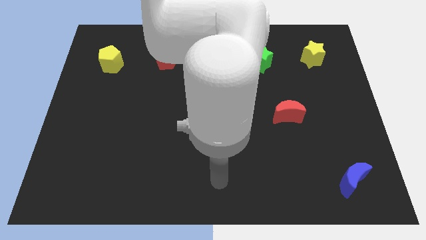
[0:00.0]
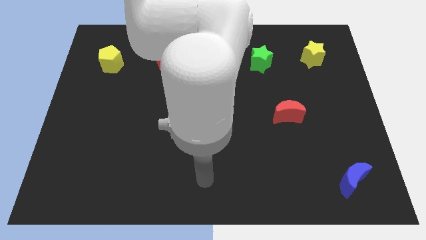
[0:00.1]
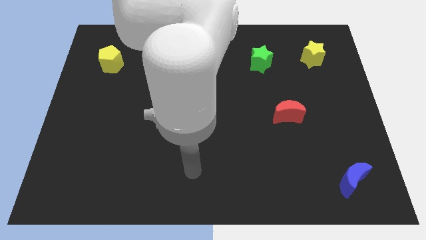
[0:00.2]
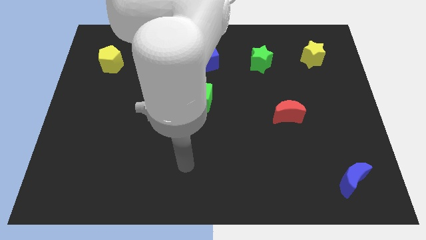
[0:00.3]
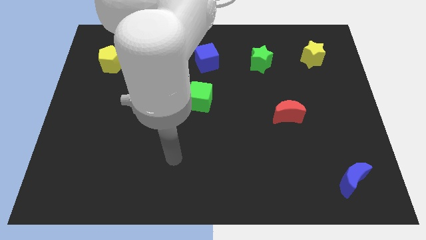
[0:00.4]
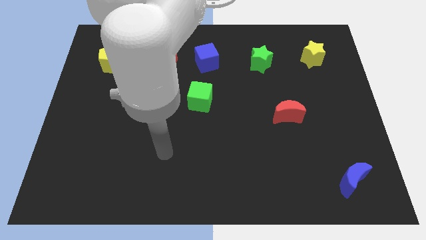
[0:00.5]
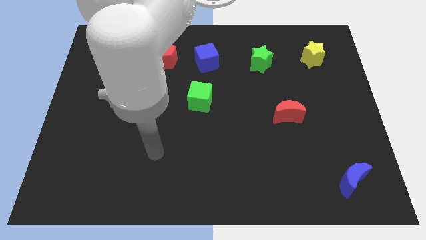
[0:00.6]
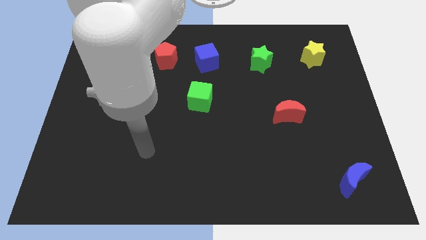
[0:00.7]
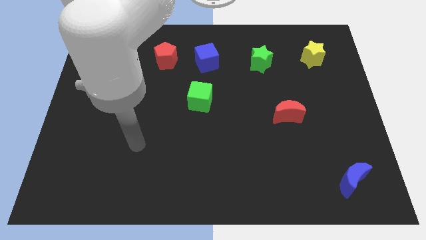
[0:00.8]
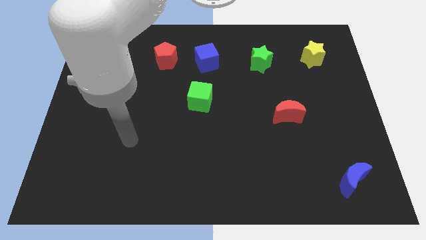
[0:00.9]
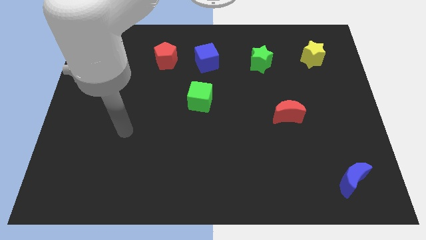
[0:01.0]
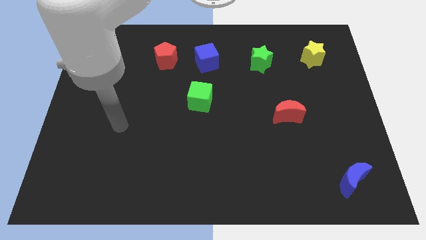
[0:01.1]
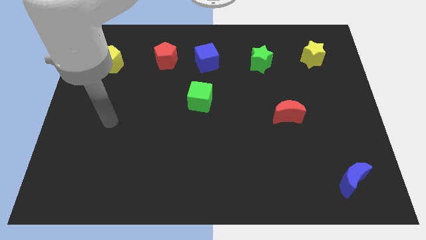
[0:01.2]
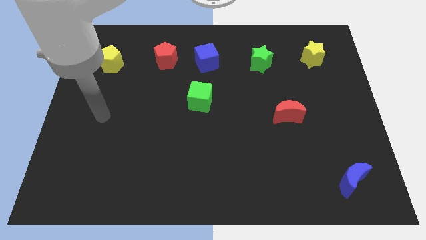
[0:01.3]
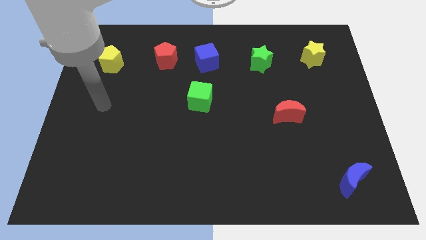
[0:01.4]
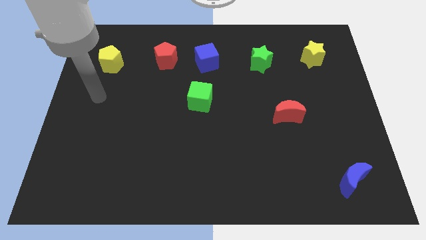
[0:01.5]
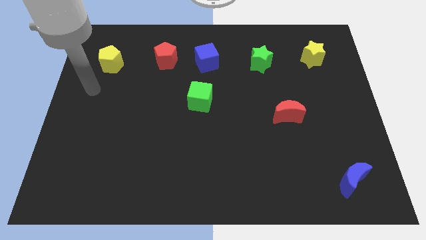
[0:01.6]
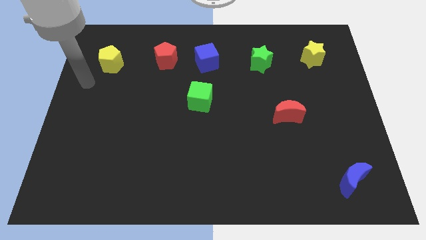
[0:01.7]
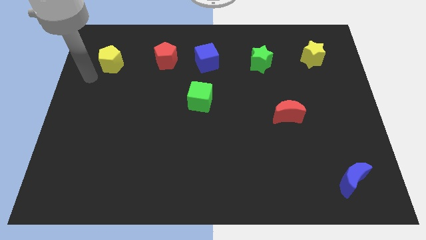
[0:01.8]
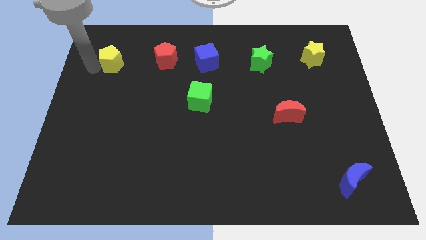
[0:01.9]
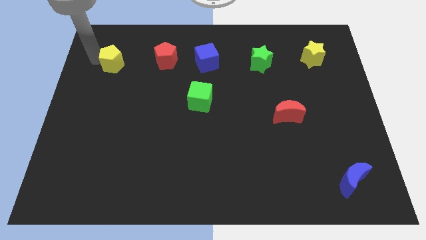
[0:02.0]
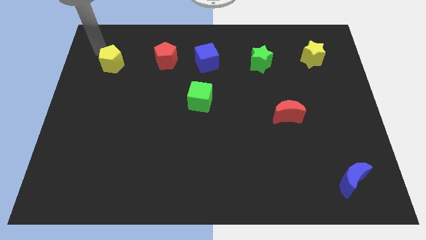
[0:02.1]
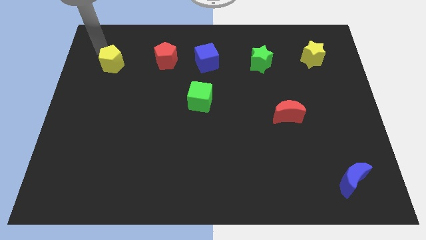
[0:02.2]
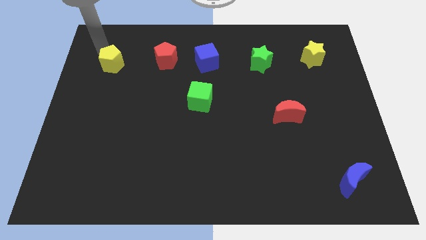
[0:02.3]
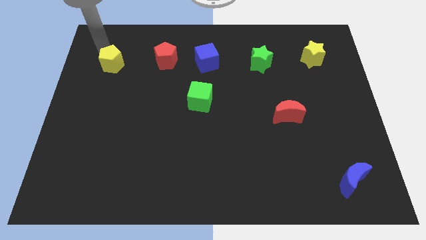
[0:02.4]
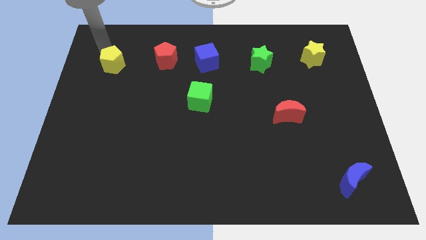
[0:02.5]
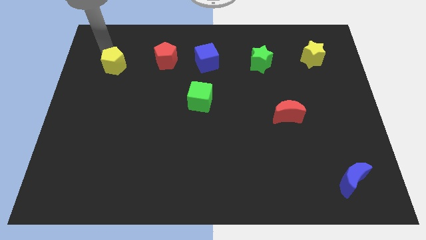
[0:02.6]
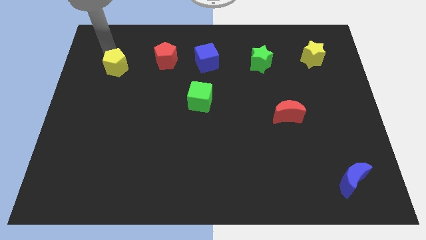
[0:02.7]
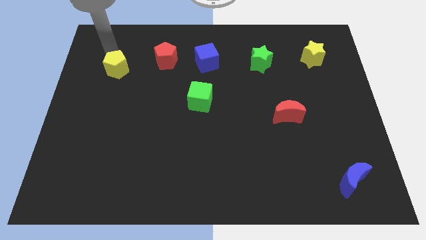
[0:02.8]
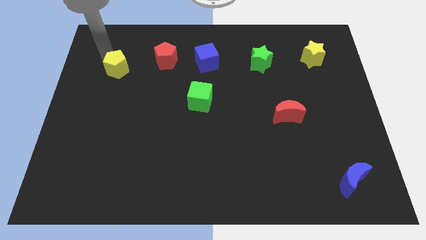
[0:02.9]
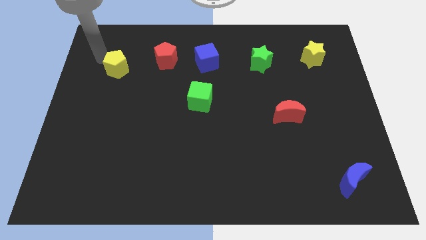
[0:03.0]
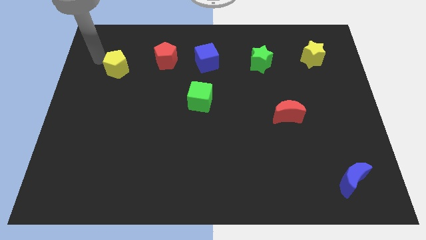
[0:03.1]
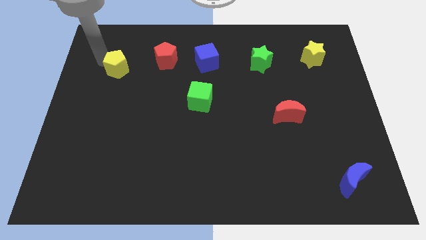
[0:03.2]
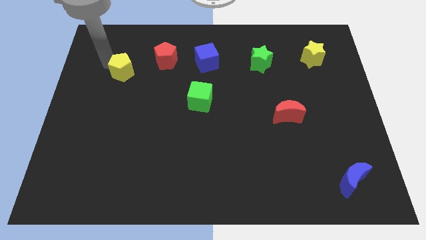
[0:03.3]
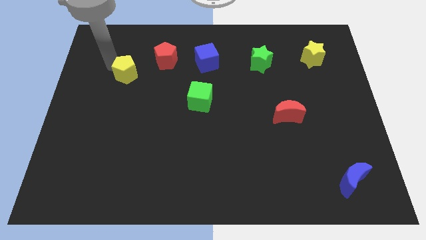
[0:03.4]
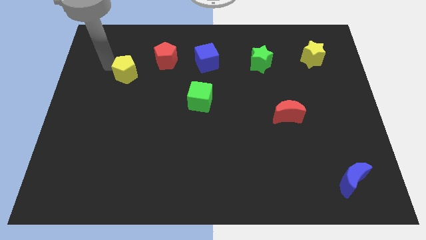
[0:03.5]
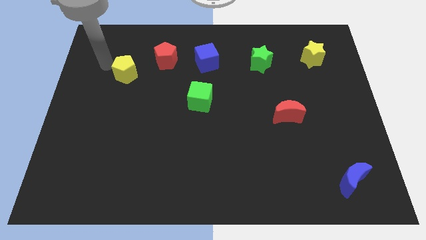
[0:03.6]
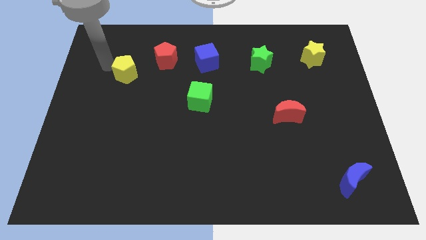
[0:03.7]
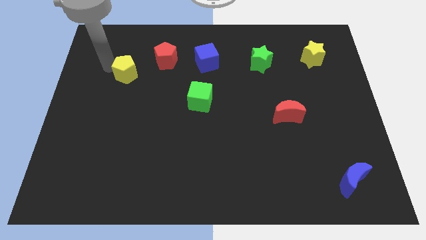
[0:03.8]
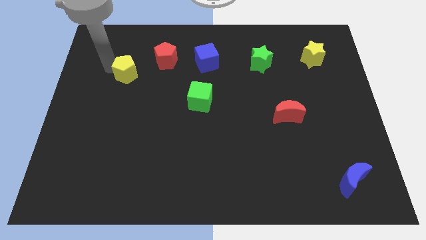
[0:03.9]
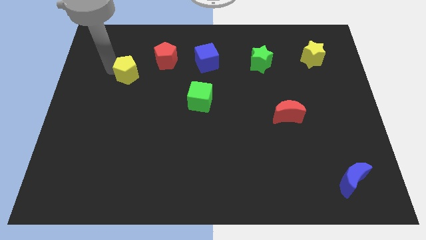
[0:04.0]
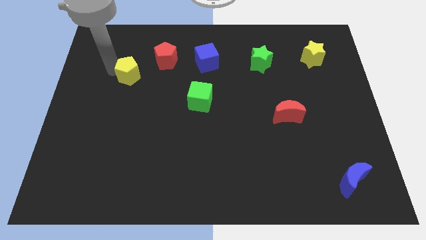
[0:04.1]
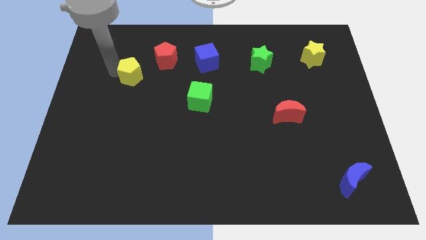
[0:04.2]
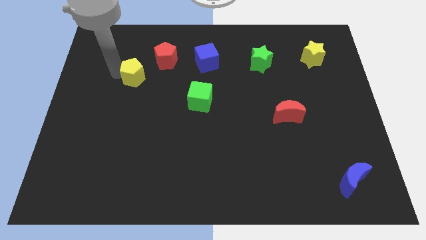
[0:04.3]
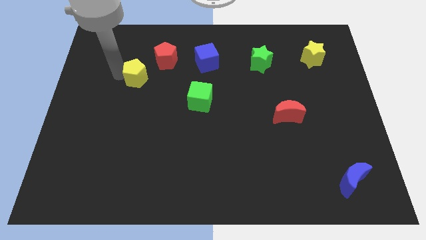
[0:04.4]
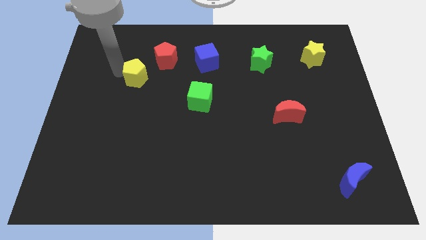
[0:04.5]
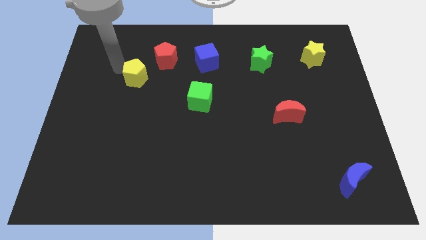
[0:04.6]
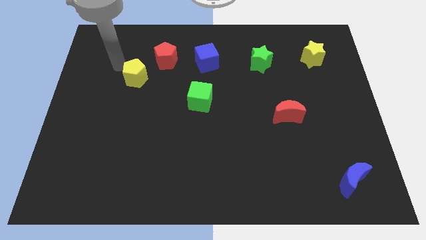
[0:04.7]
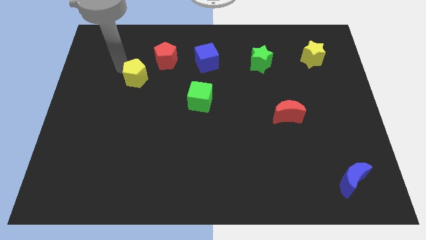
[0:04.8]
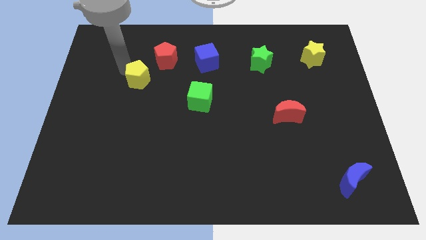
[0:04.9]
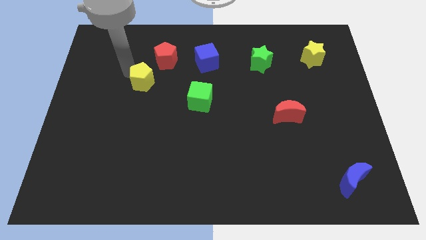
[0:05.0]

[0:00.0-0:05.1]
move the yellow pentagon below the red pentagon

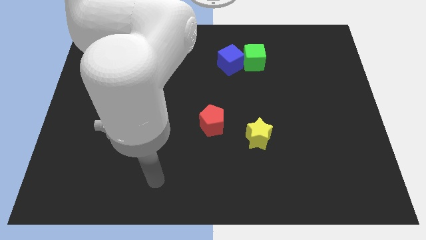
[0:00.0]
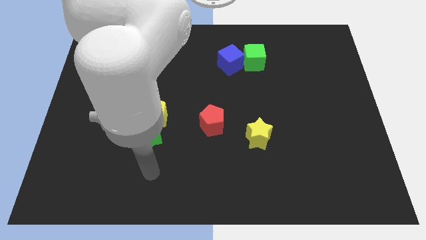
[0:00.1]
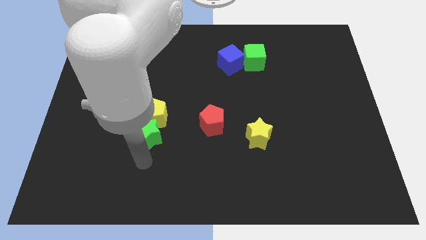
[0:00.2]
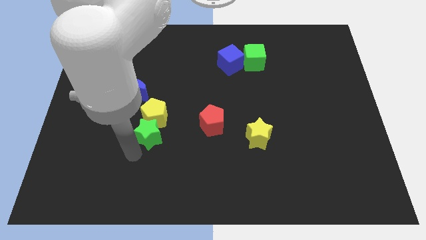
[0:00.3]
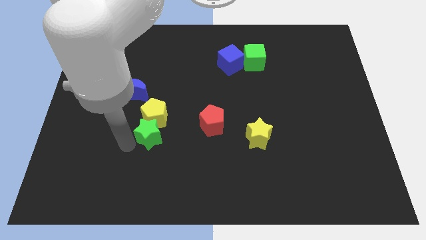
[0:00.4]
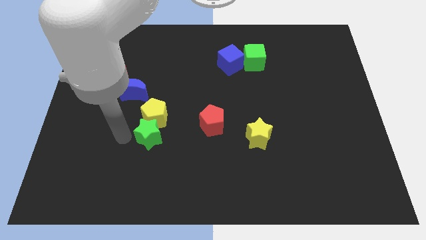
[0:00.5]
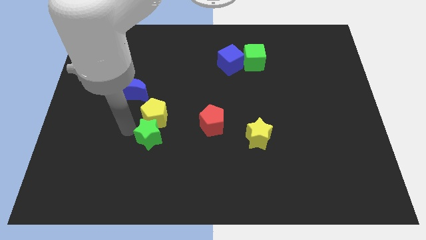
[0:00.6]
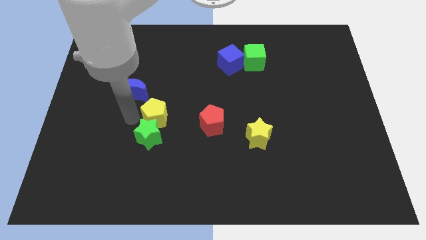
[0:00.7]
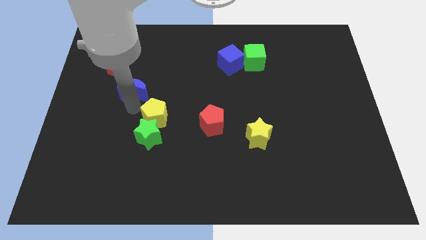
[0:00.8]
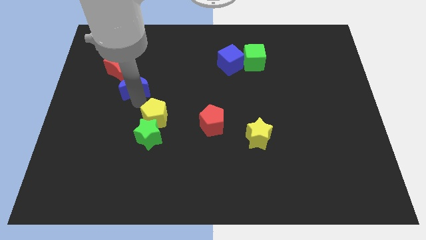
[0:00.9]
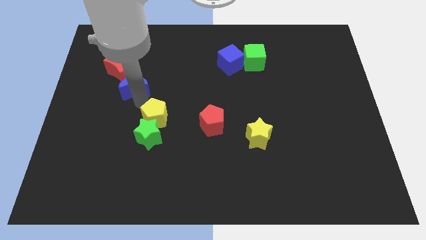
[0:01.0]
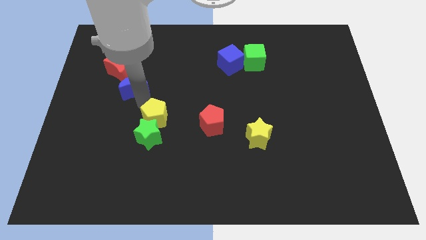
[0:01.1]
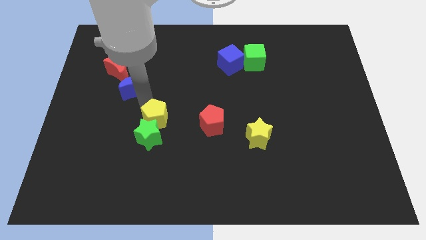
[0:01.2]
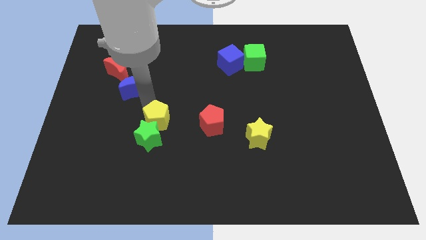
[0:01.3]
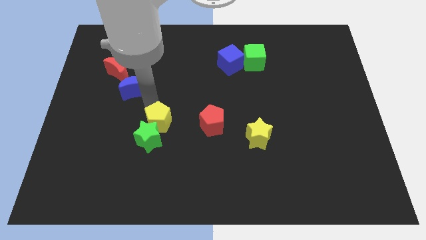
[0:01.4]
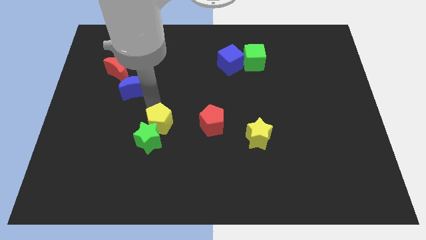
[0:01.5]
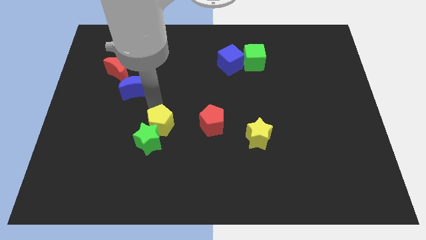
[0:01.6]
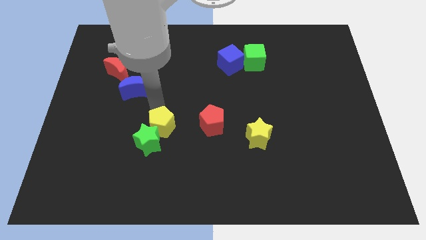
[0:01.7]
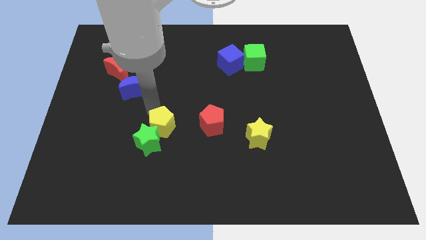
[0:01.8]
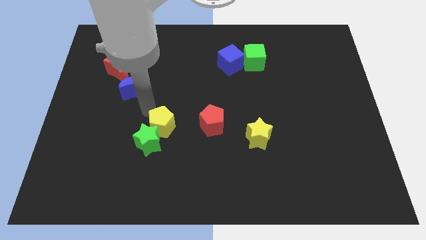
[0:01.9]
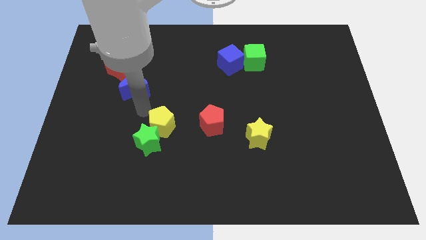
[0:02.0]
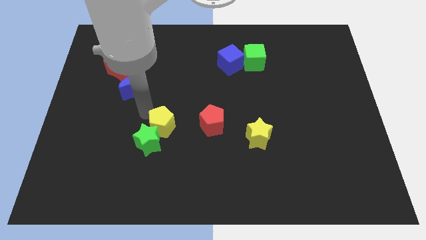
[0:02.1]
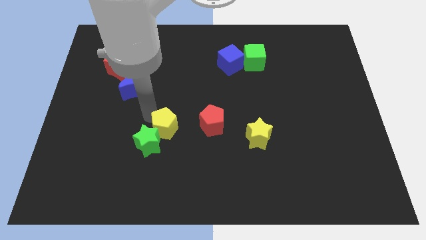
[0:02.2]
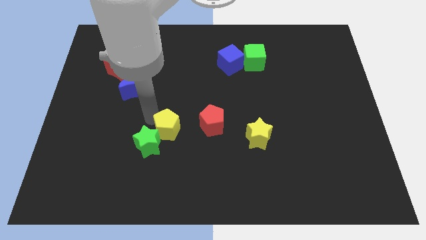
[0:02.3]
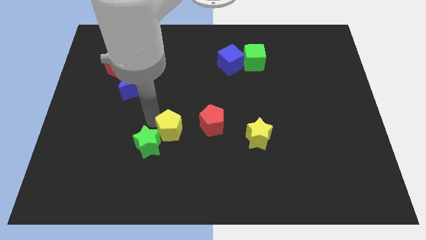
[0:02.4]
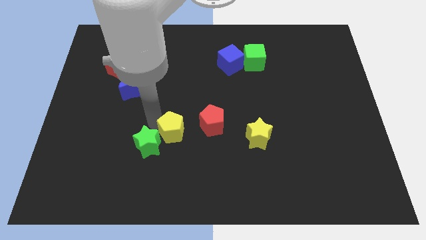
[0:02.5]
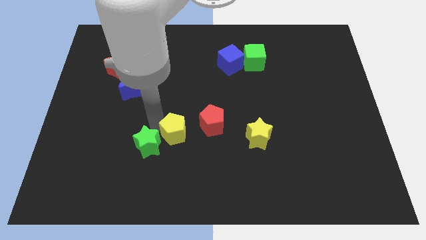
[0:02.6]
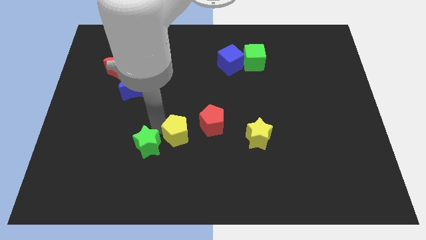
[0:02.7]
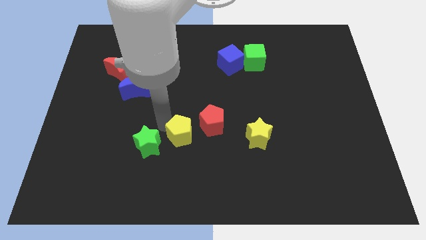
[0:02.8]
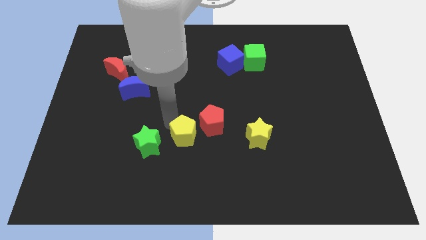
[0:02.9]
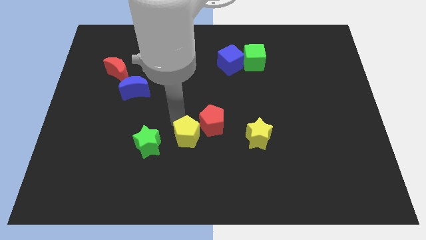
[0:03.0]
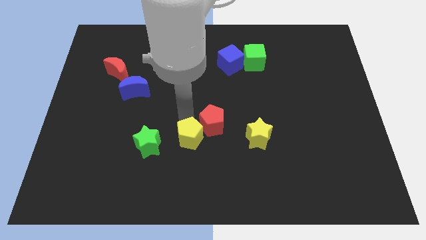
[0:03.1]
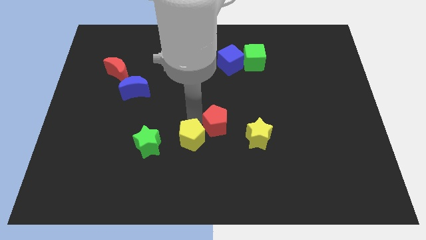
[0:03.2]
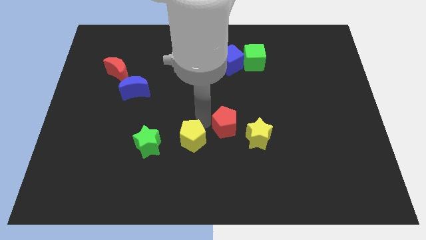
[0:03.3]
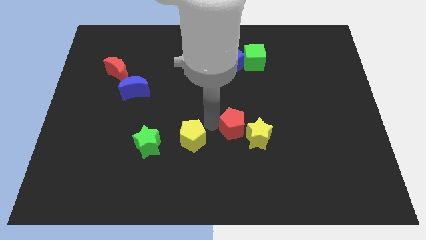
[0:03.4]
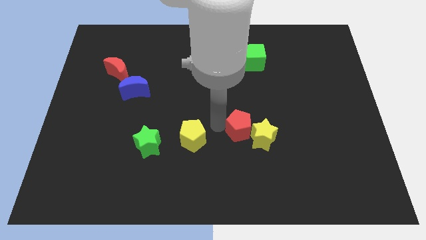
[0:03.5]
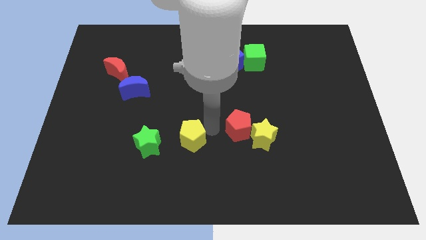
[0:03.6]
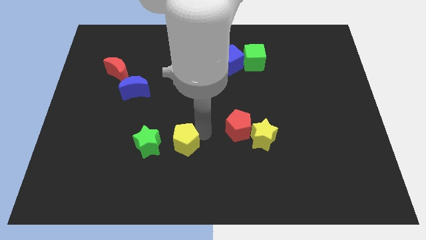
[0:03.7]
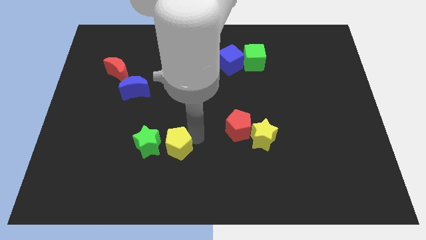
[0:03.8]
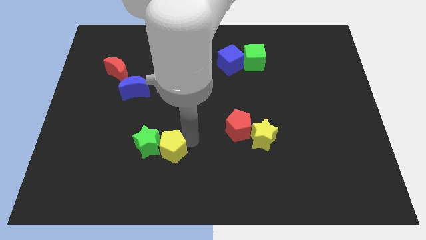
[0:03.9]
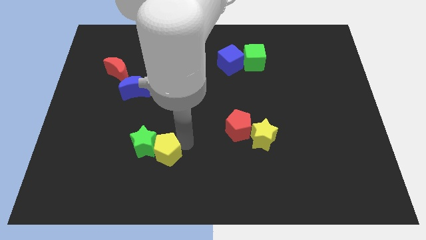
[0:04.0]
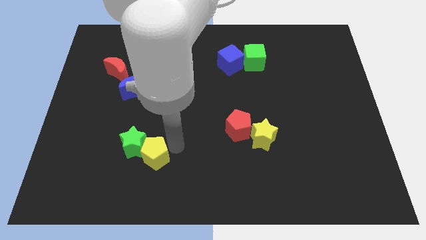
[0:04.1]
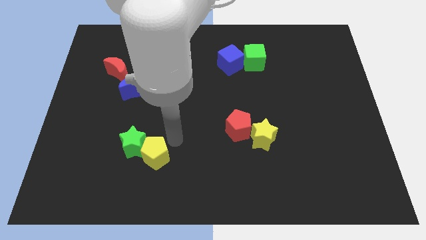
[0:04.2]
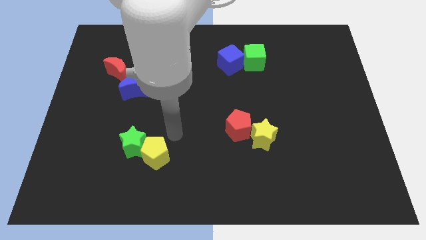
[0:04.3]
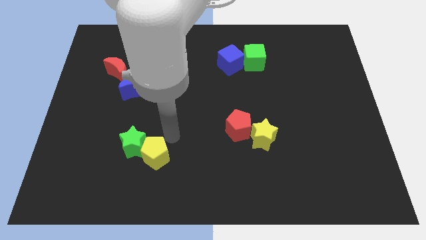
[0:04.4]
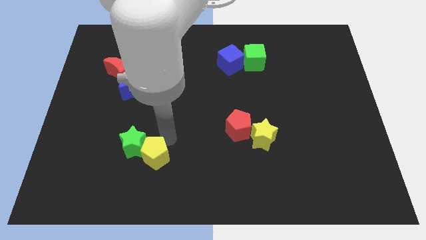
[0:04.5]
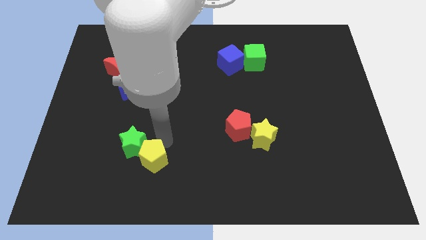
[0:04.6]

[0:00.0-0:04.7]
put the yellow pentagon to the bottom side of the green star
